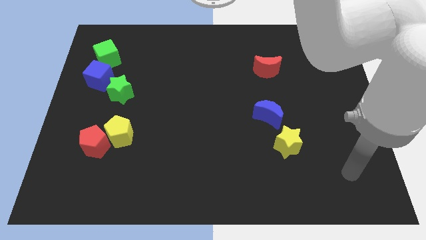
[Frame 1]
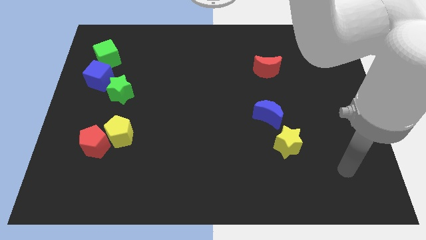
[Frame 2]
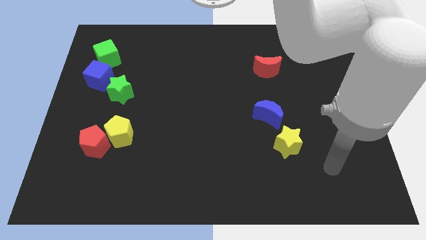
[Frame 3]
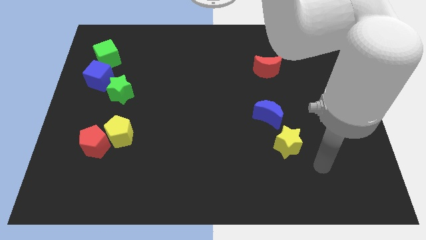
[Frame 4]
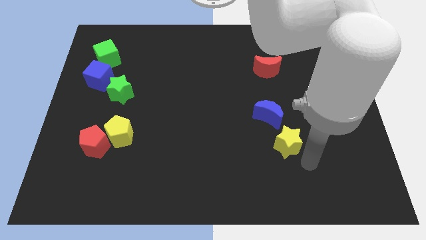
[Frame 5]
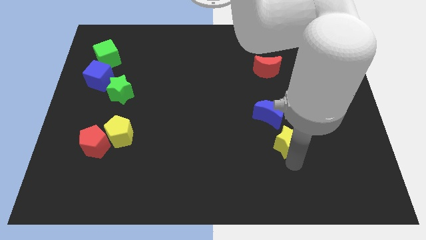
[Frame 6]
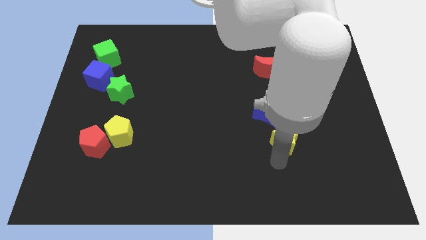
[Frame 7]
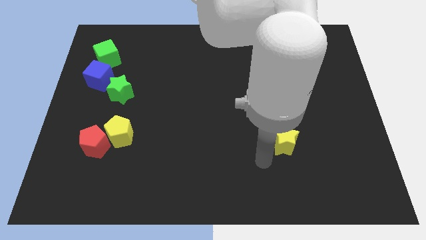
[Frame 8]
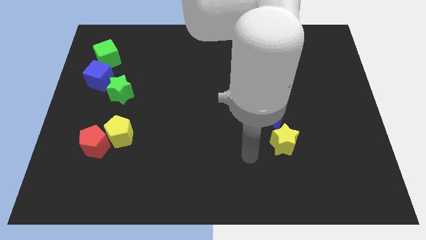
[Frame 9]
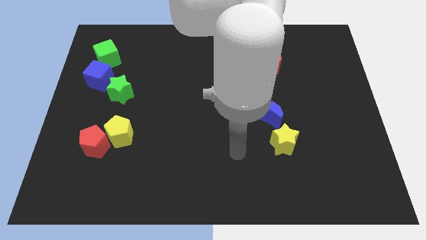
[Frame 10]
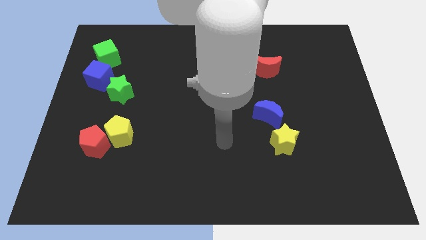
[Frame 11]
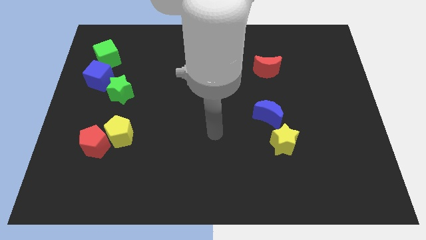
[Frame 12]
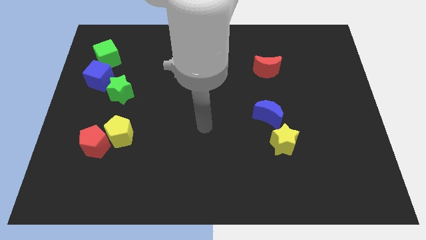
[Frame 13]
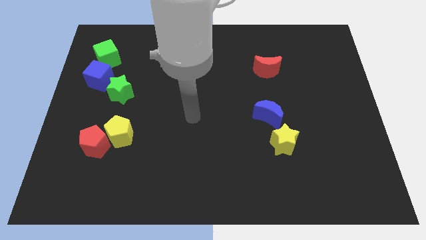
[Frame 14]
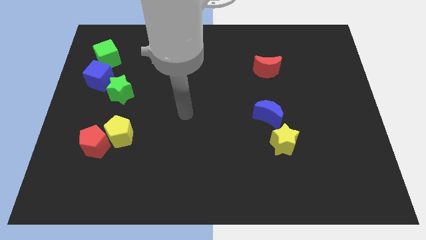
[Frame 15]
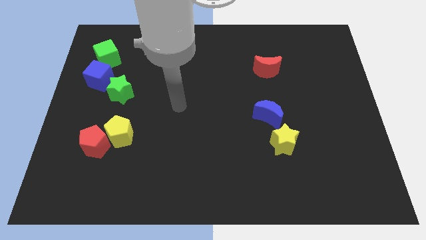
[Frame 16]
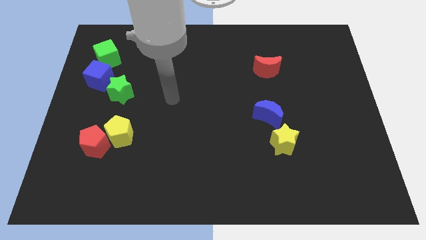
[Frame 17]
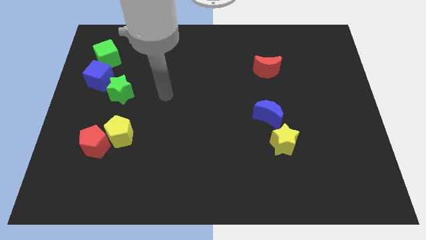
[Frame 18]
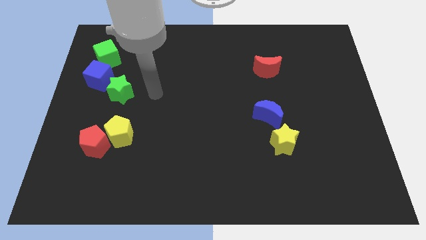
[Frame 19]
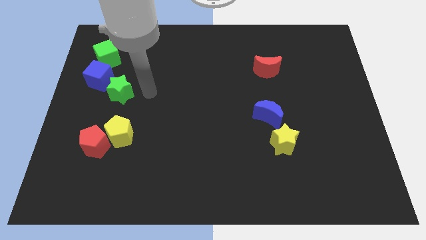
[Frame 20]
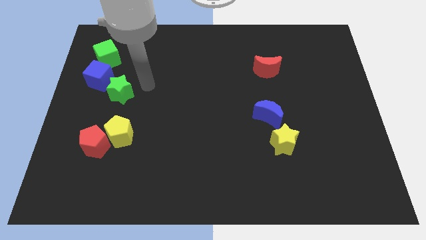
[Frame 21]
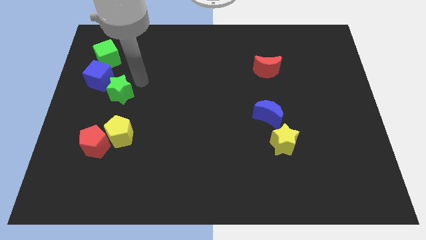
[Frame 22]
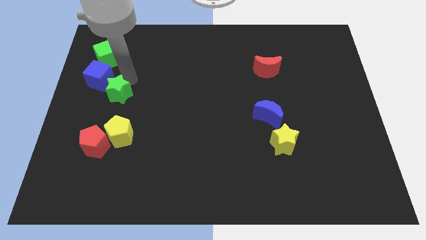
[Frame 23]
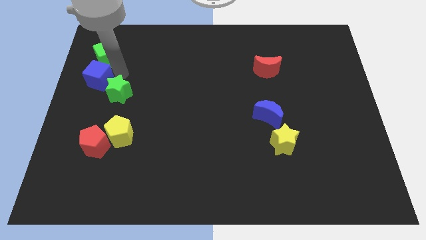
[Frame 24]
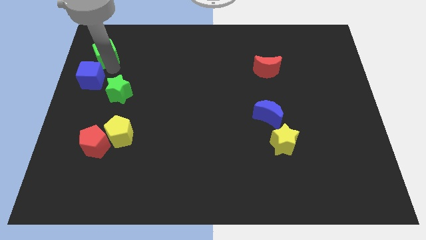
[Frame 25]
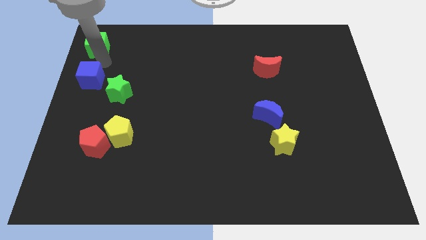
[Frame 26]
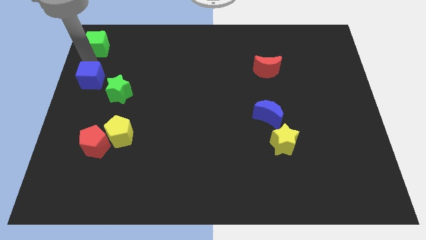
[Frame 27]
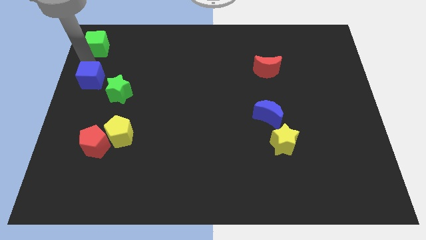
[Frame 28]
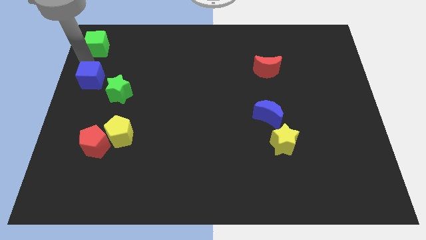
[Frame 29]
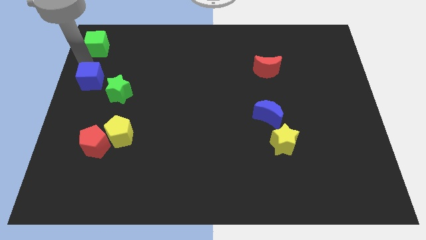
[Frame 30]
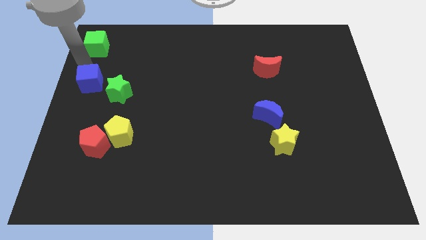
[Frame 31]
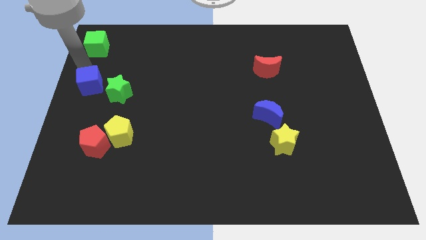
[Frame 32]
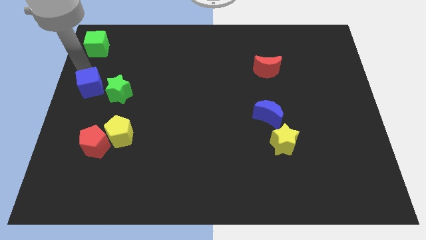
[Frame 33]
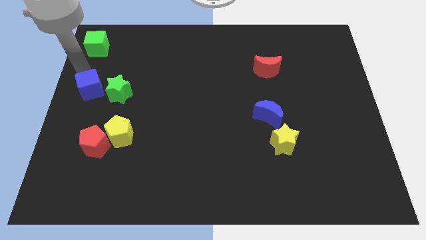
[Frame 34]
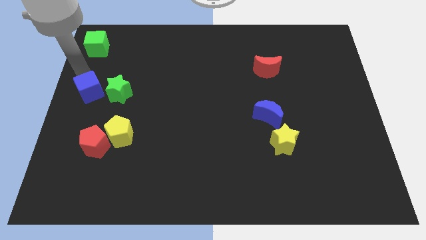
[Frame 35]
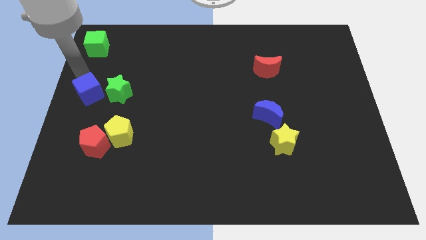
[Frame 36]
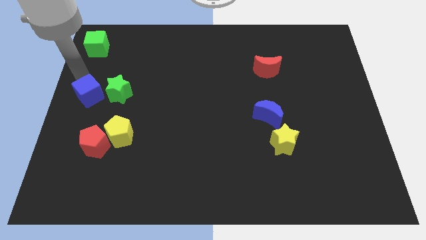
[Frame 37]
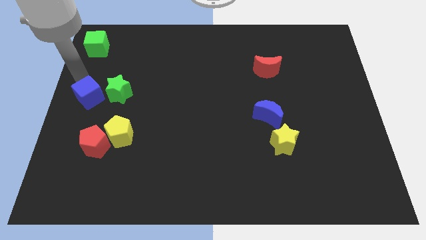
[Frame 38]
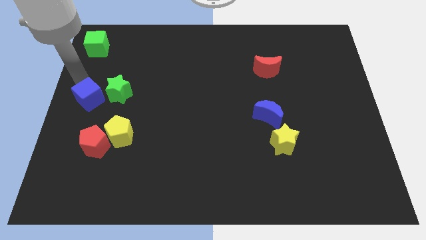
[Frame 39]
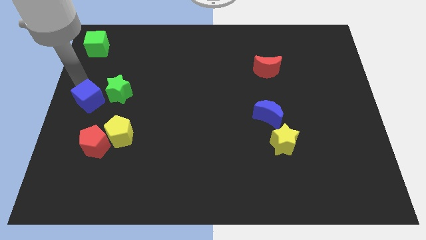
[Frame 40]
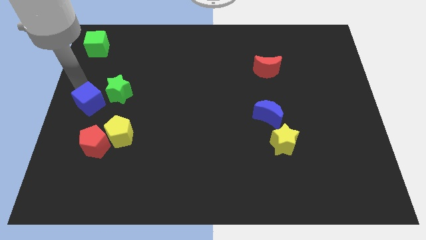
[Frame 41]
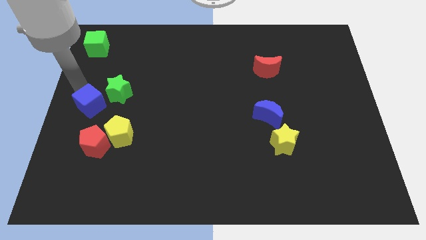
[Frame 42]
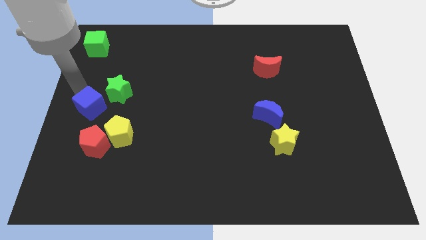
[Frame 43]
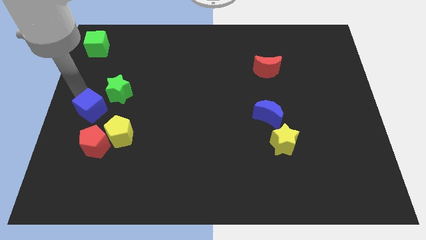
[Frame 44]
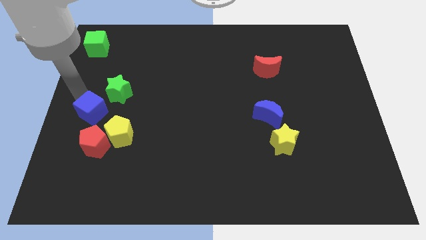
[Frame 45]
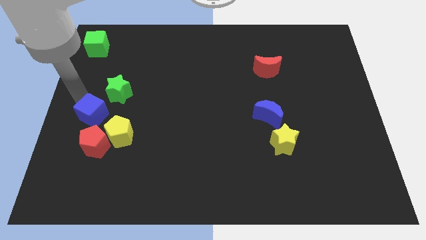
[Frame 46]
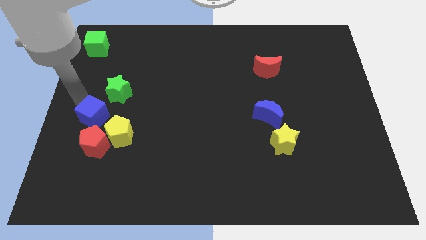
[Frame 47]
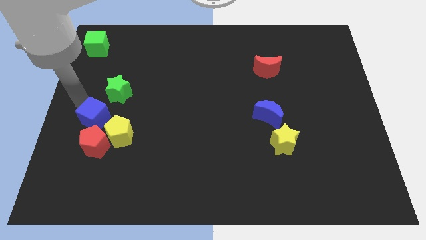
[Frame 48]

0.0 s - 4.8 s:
push the blue cube down and then to the right a little

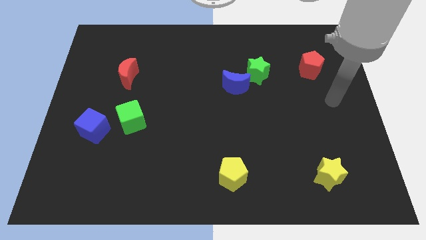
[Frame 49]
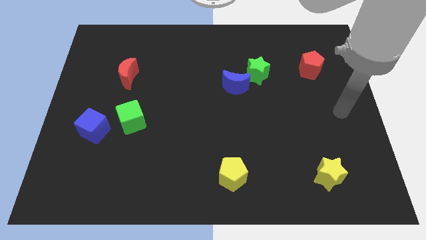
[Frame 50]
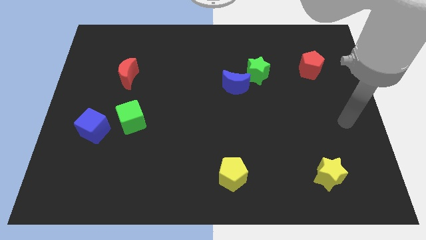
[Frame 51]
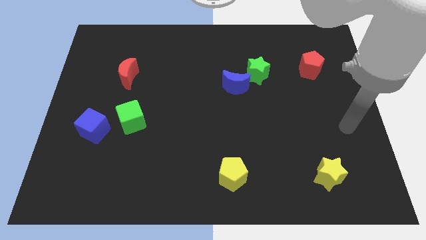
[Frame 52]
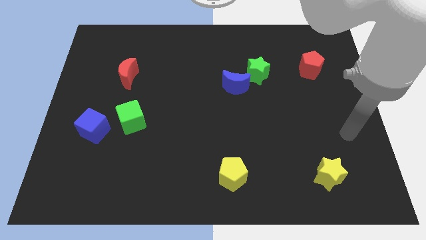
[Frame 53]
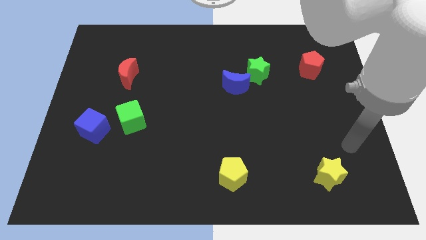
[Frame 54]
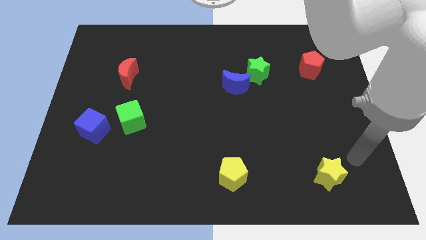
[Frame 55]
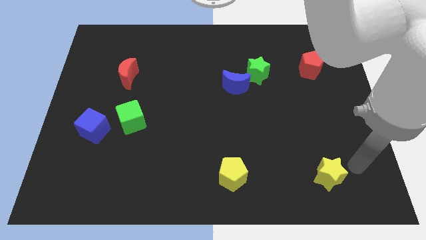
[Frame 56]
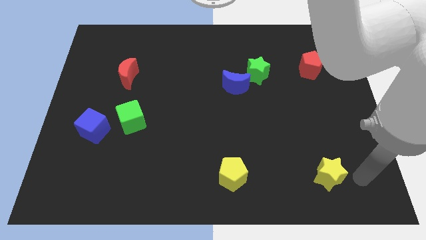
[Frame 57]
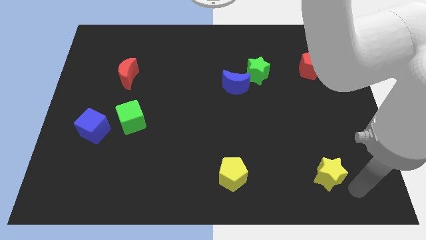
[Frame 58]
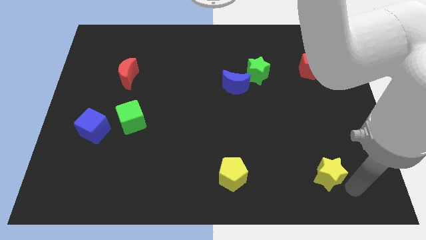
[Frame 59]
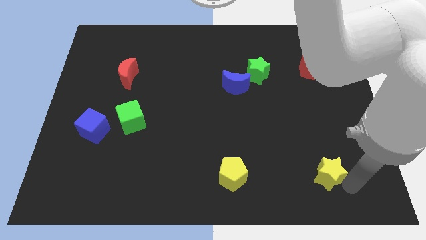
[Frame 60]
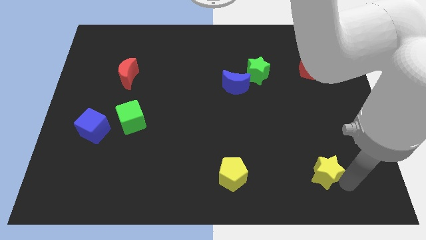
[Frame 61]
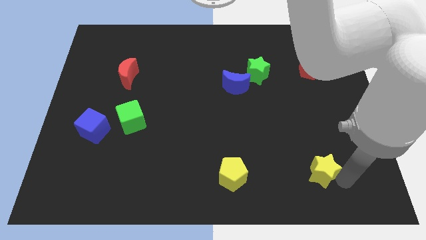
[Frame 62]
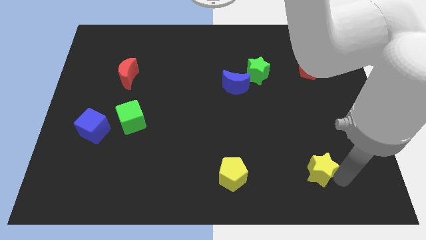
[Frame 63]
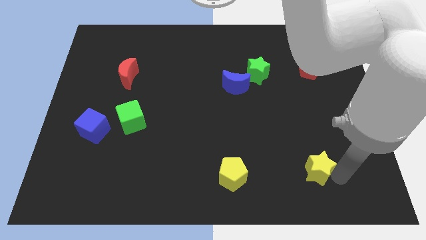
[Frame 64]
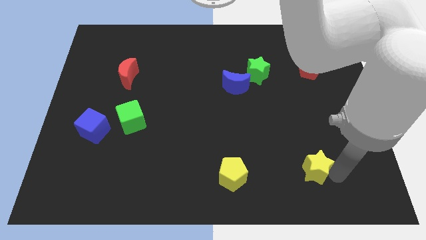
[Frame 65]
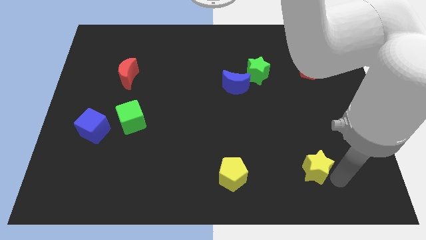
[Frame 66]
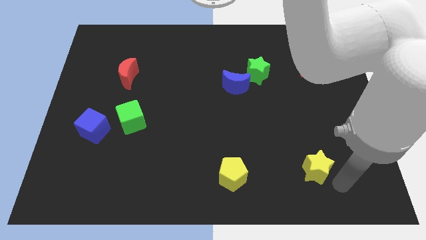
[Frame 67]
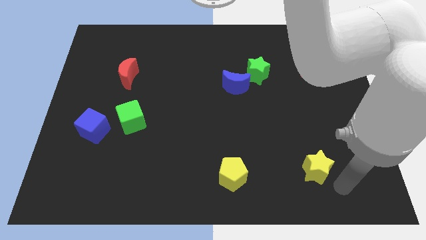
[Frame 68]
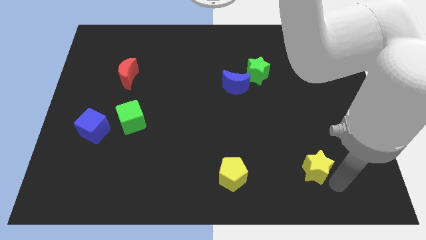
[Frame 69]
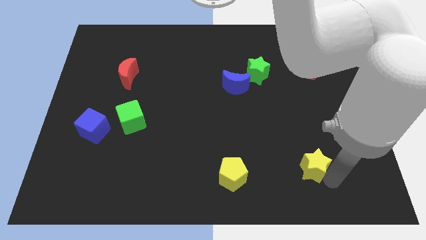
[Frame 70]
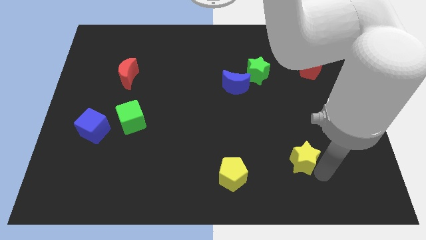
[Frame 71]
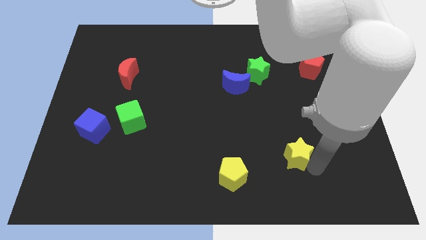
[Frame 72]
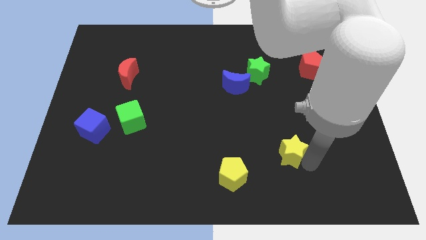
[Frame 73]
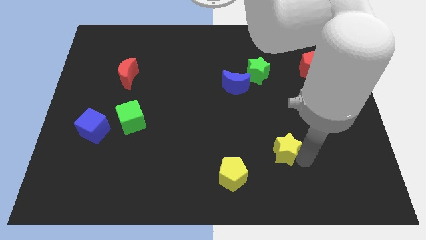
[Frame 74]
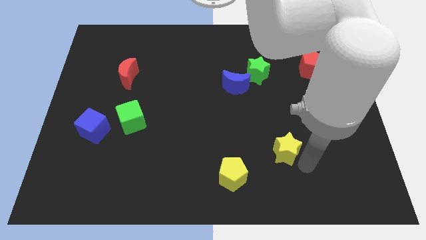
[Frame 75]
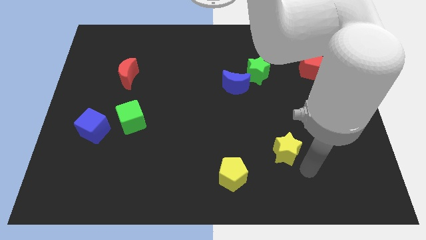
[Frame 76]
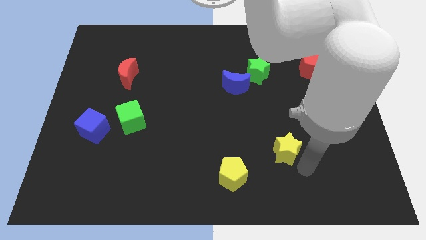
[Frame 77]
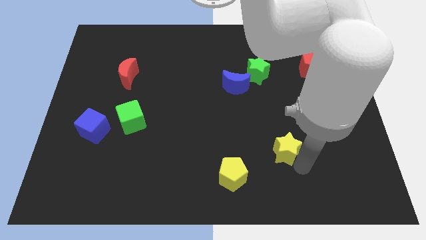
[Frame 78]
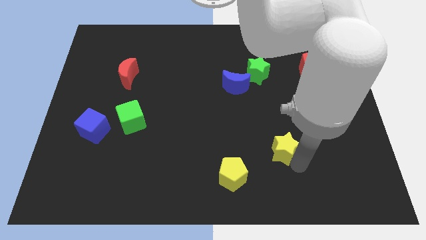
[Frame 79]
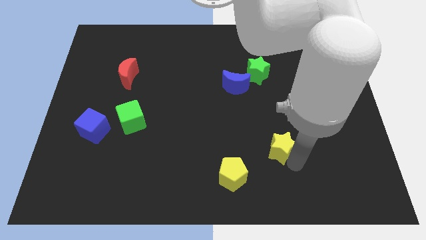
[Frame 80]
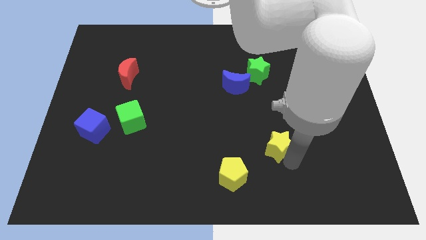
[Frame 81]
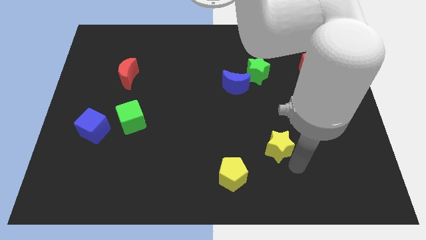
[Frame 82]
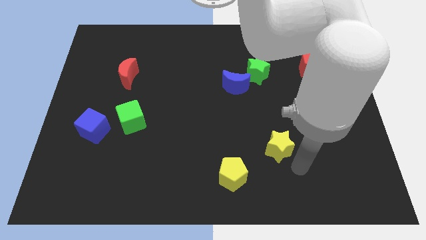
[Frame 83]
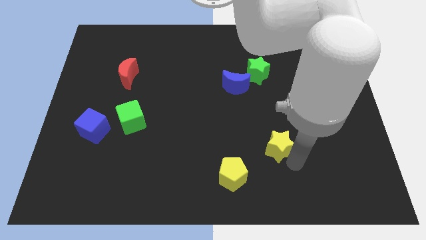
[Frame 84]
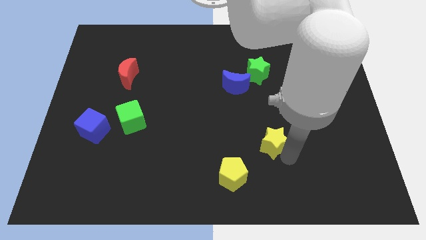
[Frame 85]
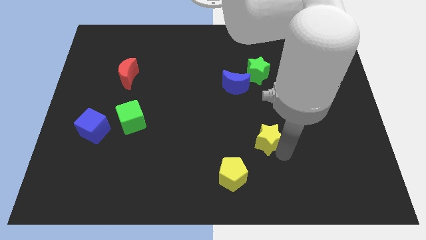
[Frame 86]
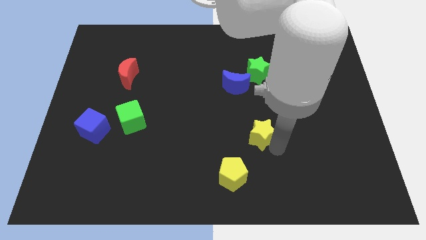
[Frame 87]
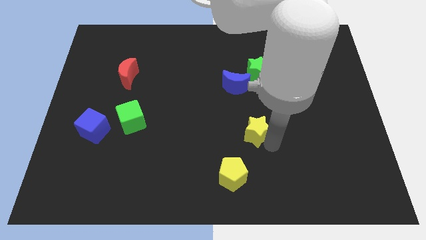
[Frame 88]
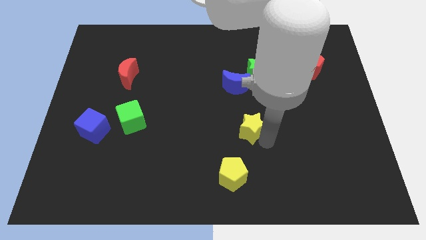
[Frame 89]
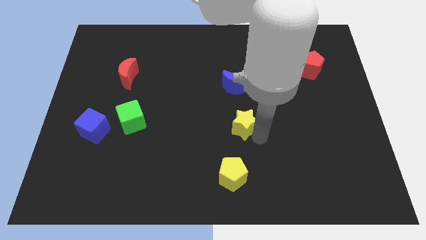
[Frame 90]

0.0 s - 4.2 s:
move the yellow star up and then to the left
